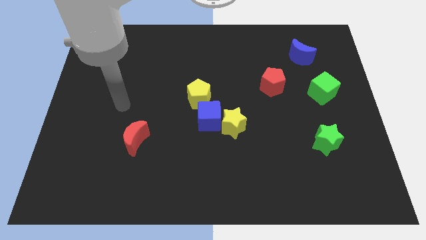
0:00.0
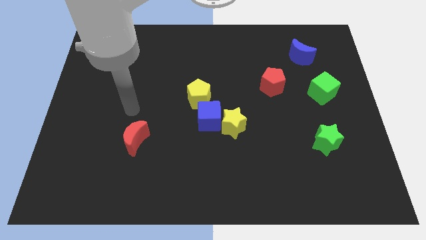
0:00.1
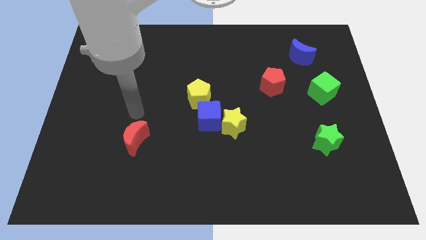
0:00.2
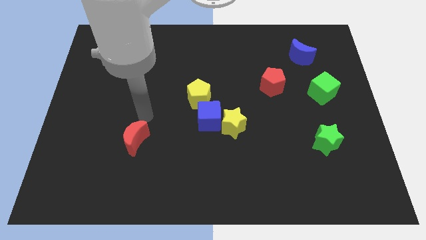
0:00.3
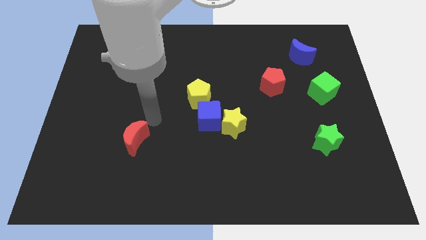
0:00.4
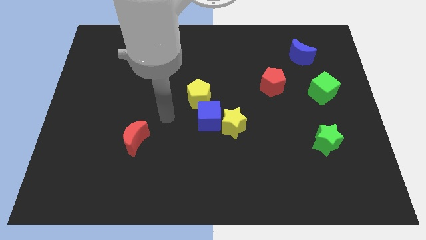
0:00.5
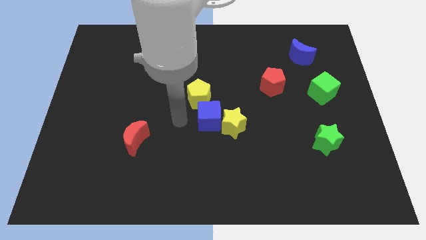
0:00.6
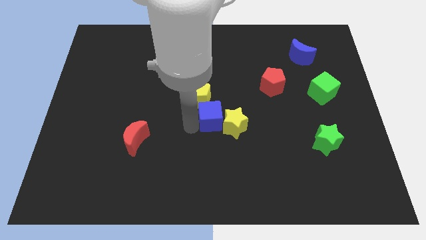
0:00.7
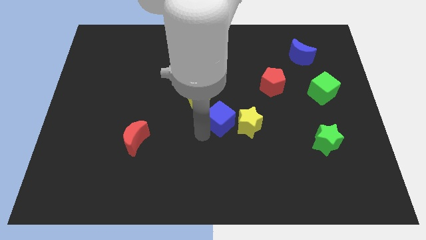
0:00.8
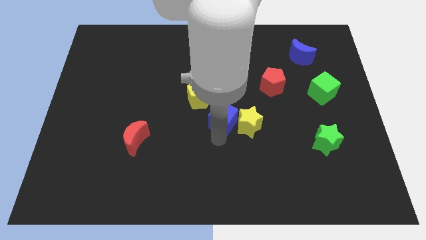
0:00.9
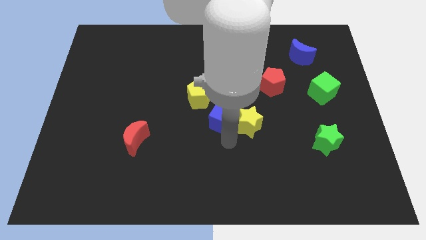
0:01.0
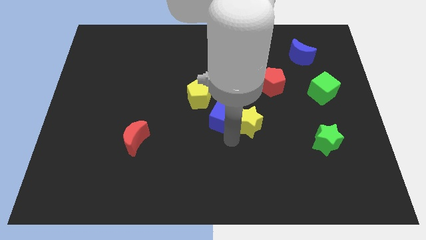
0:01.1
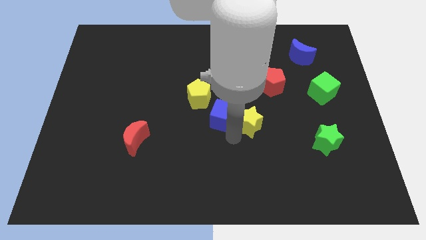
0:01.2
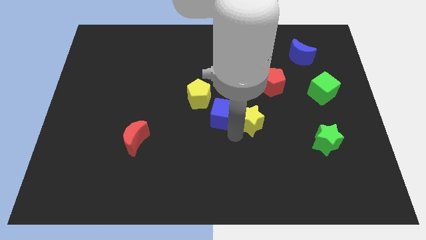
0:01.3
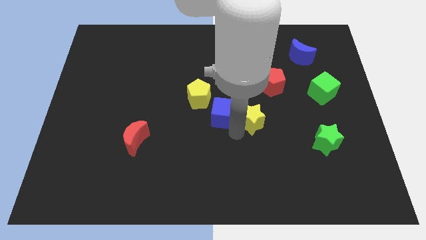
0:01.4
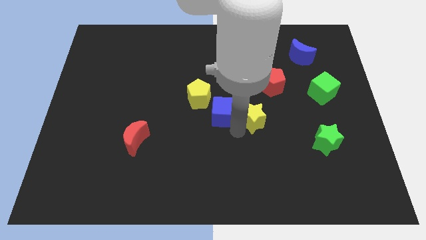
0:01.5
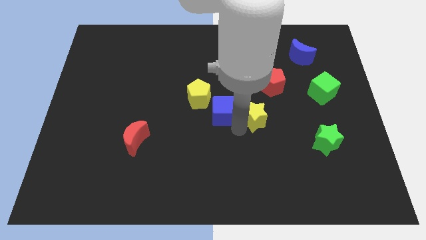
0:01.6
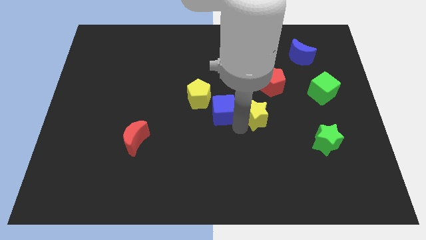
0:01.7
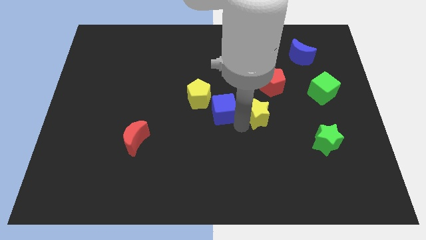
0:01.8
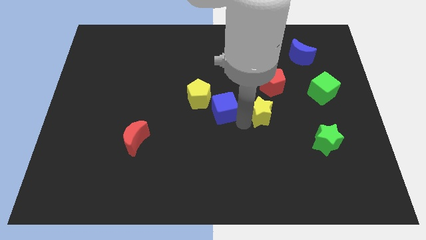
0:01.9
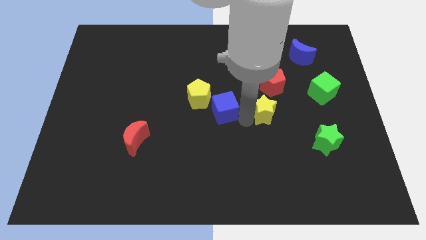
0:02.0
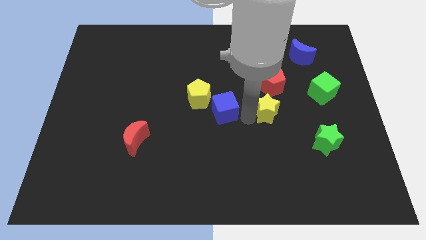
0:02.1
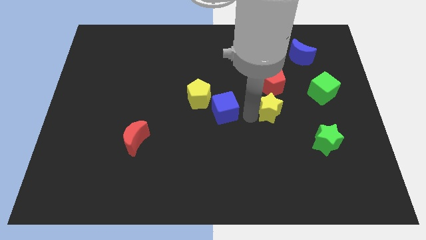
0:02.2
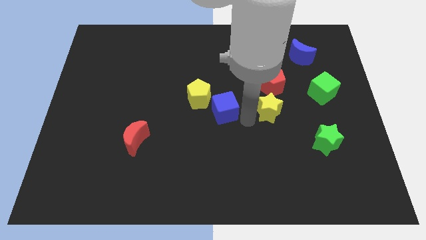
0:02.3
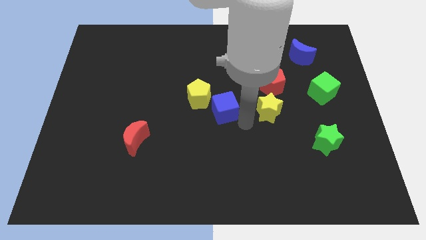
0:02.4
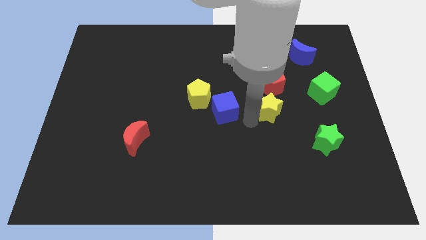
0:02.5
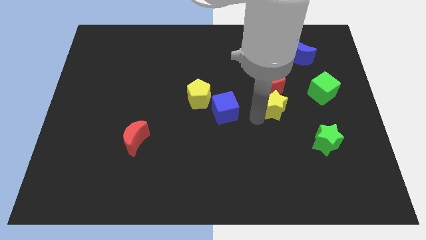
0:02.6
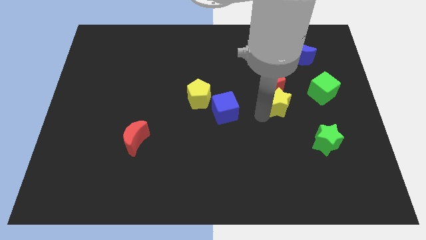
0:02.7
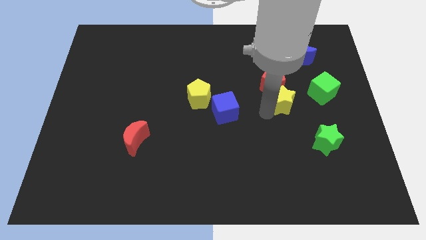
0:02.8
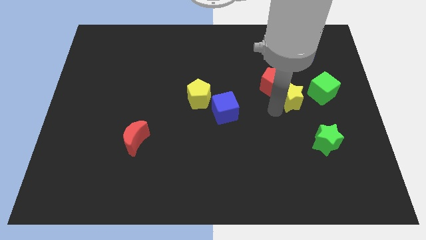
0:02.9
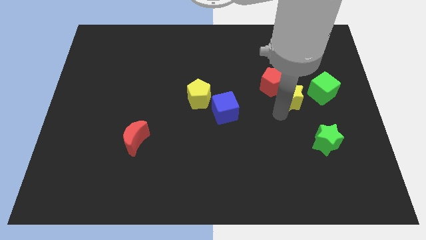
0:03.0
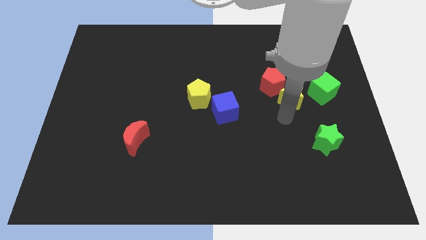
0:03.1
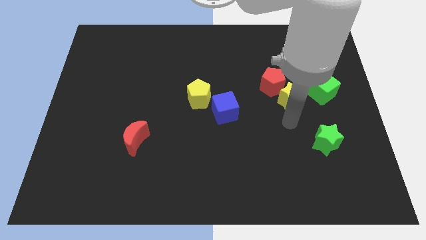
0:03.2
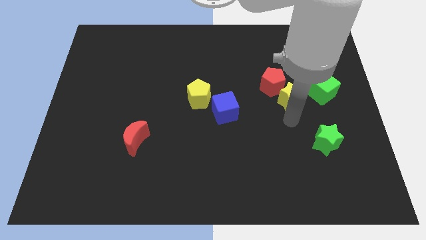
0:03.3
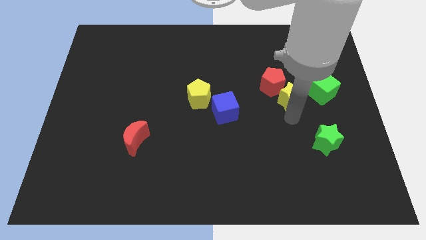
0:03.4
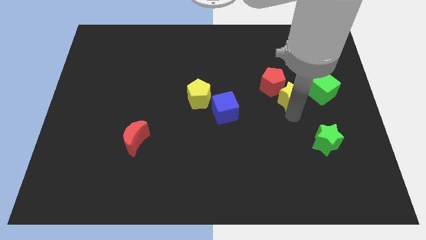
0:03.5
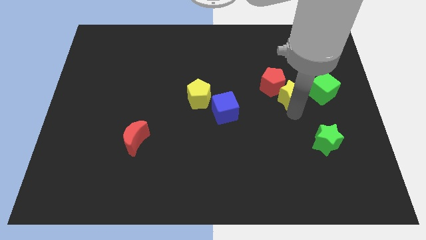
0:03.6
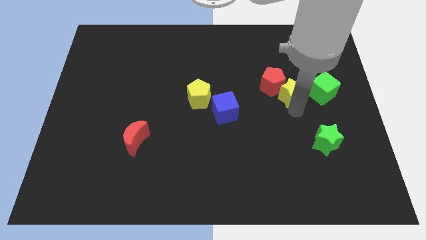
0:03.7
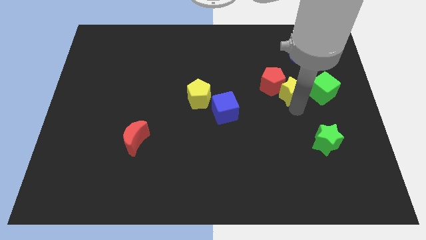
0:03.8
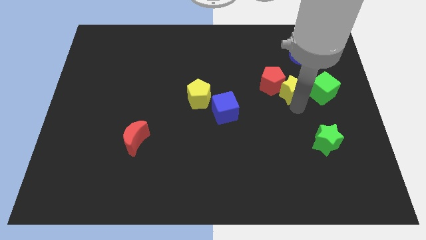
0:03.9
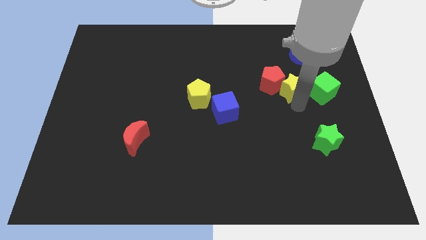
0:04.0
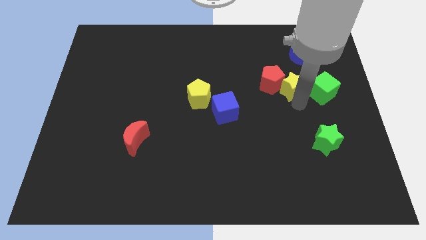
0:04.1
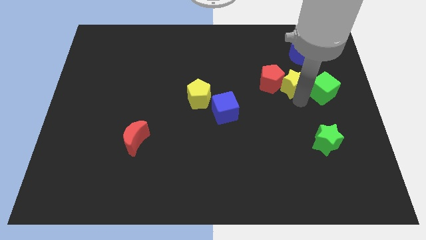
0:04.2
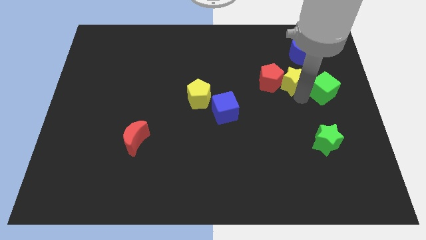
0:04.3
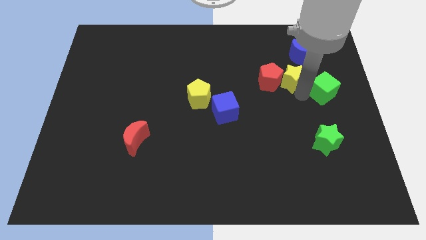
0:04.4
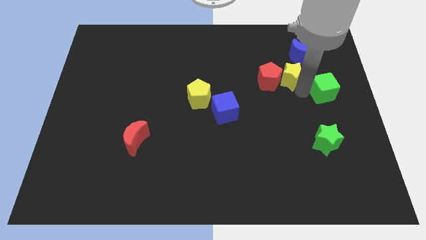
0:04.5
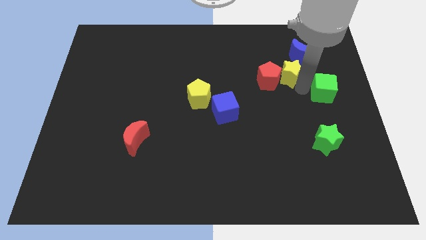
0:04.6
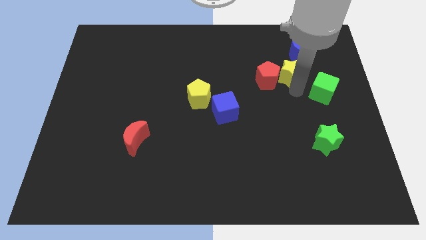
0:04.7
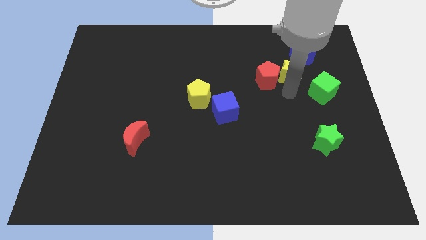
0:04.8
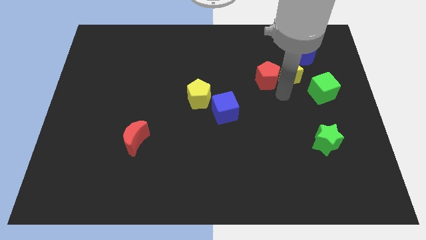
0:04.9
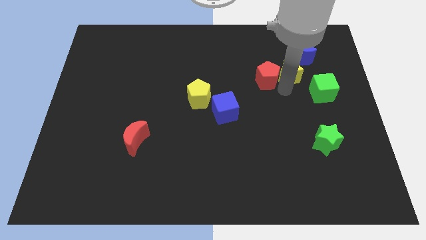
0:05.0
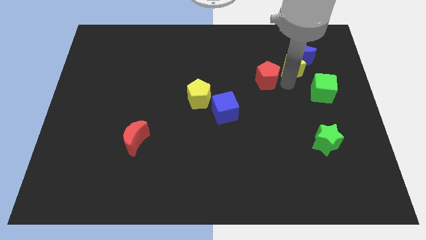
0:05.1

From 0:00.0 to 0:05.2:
slide the yellow star next to the blue moon
